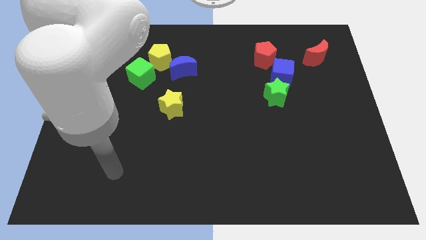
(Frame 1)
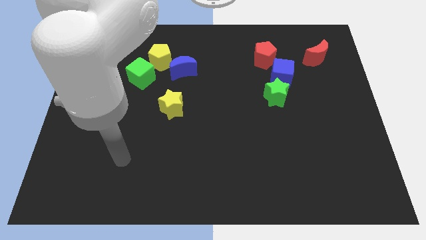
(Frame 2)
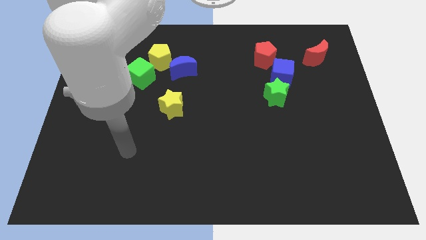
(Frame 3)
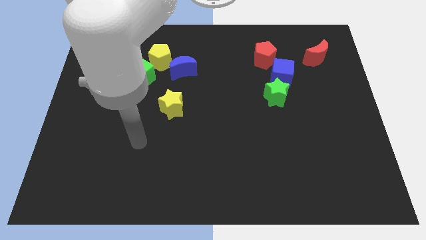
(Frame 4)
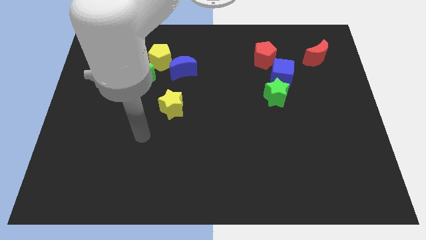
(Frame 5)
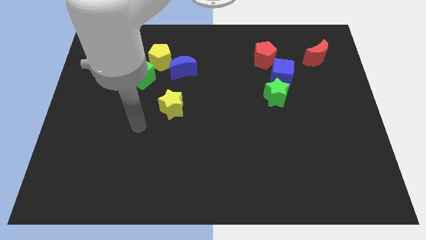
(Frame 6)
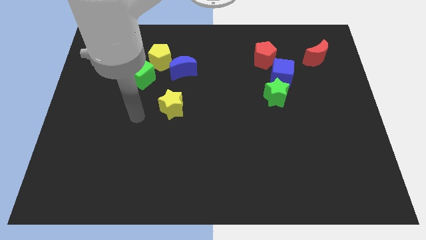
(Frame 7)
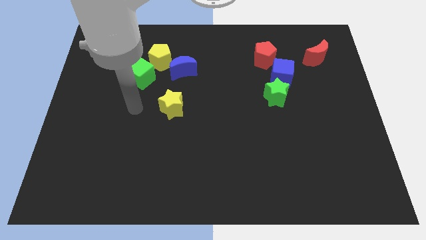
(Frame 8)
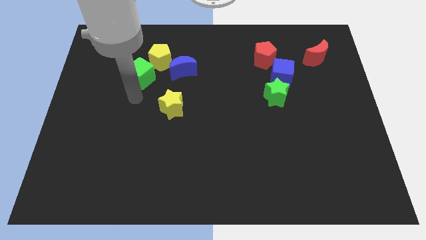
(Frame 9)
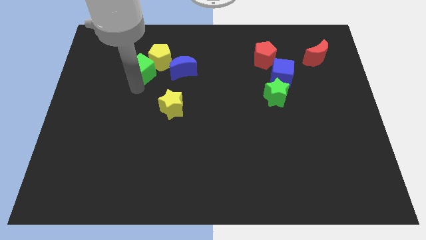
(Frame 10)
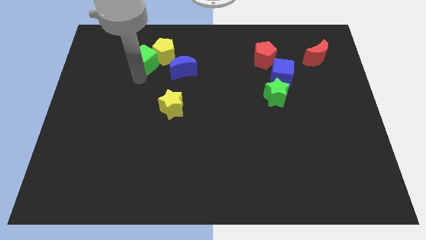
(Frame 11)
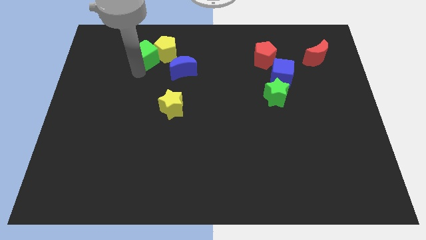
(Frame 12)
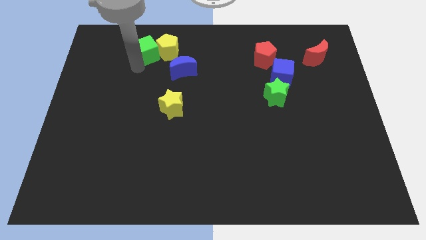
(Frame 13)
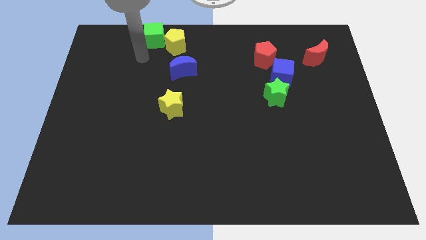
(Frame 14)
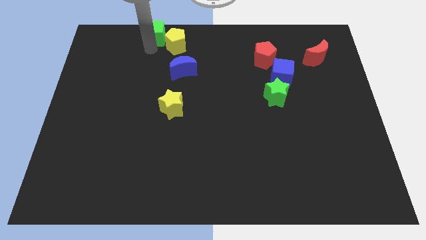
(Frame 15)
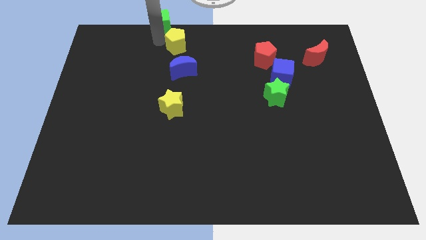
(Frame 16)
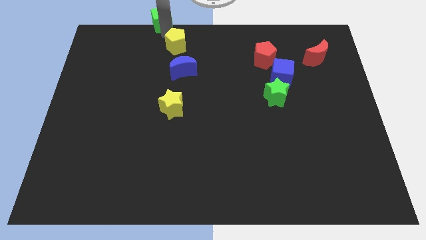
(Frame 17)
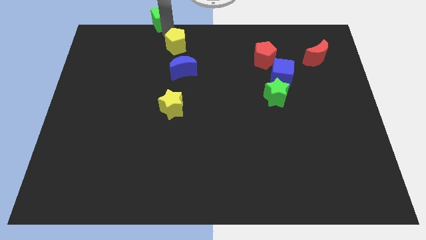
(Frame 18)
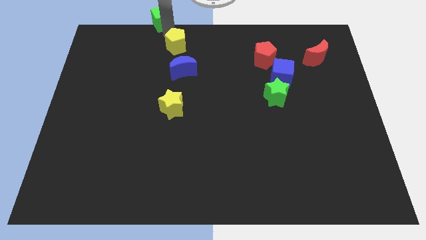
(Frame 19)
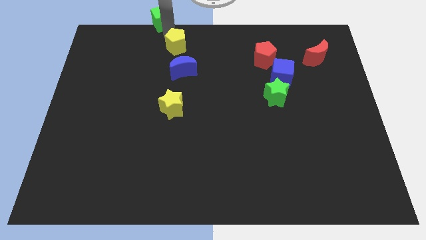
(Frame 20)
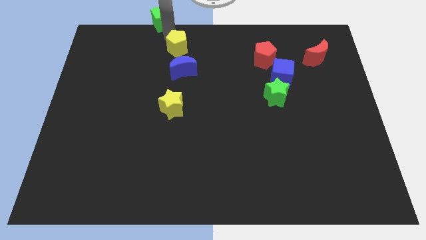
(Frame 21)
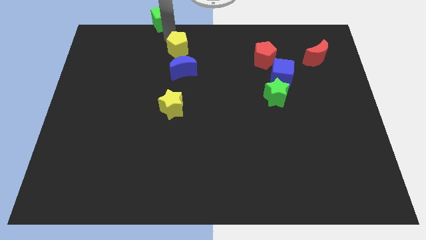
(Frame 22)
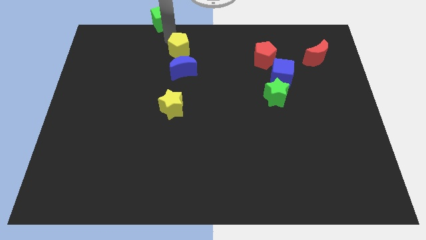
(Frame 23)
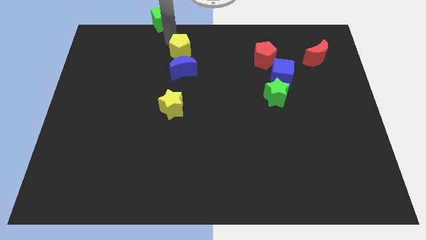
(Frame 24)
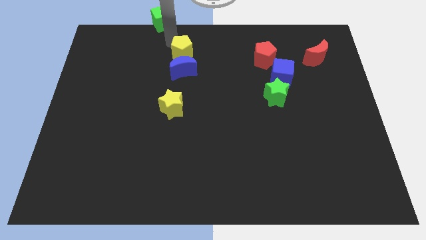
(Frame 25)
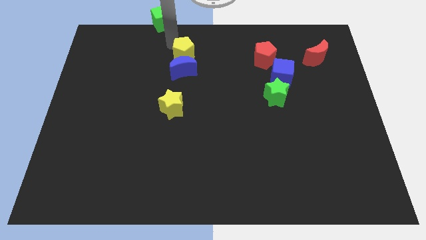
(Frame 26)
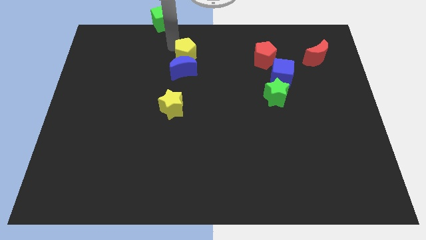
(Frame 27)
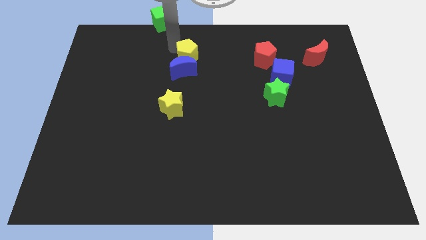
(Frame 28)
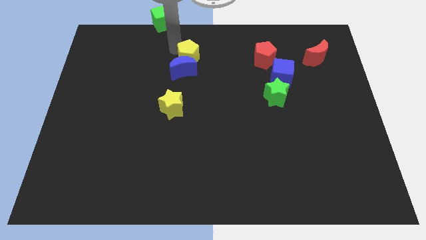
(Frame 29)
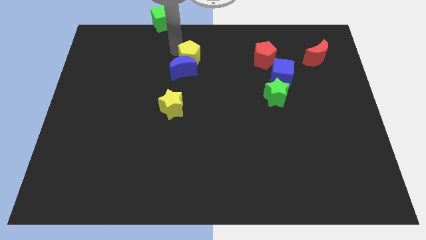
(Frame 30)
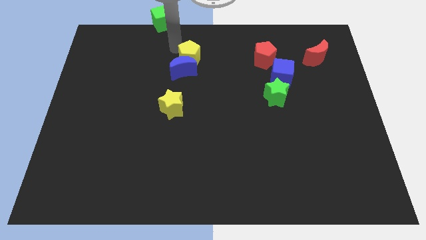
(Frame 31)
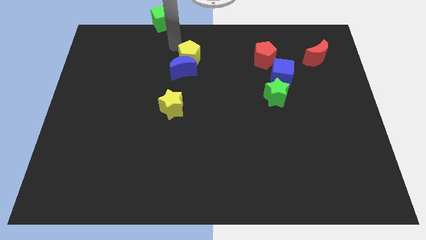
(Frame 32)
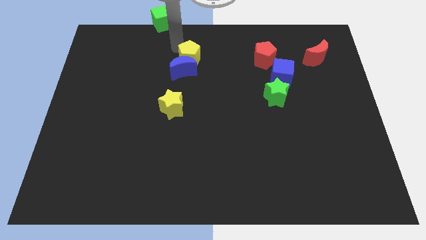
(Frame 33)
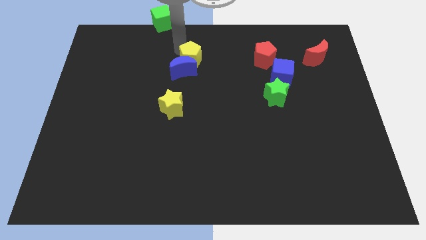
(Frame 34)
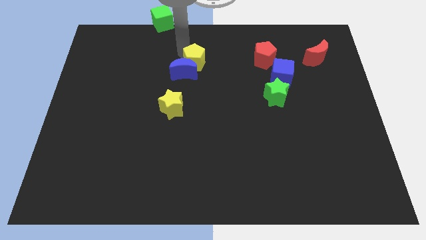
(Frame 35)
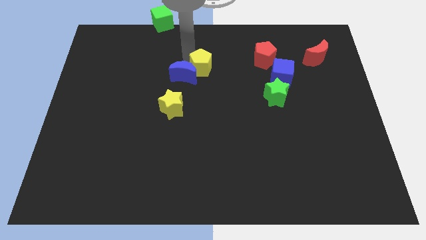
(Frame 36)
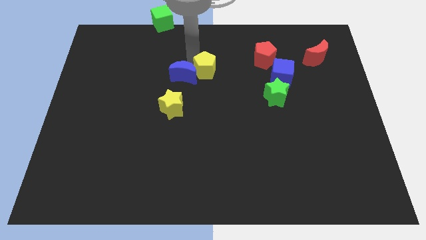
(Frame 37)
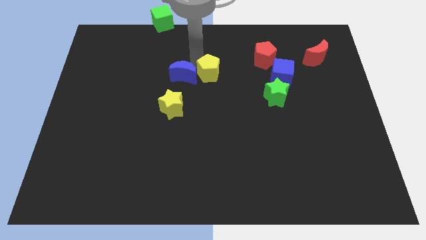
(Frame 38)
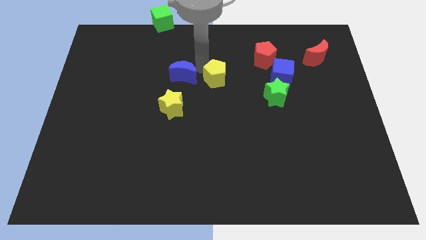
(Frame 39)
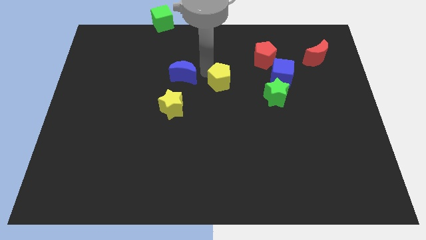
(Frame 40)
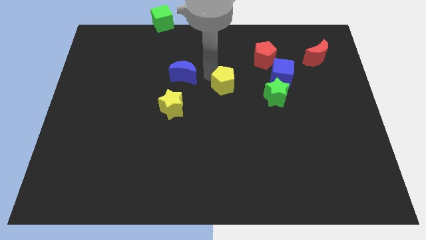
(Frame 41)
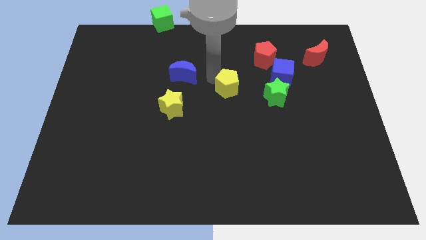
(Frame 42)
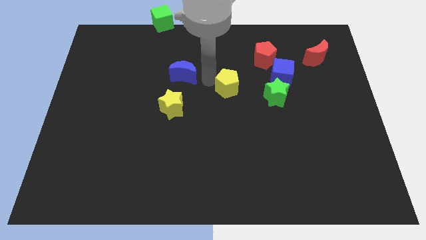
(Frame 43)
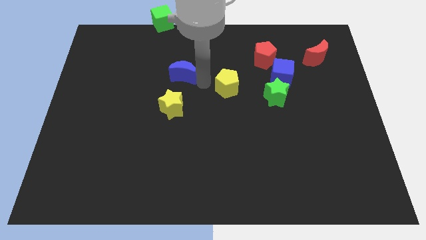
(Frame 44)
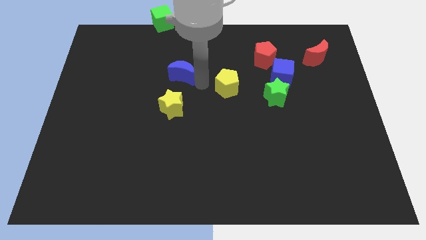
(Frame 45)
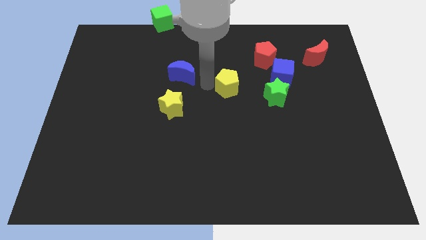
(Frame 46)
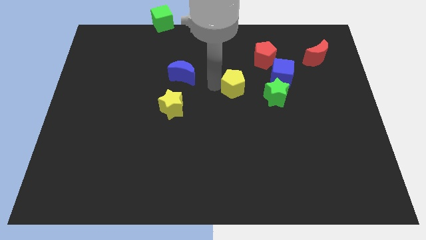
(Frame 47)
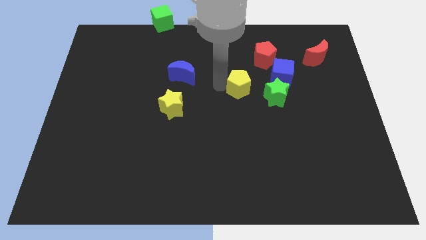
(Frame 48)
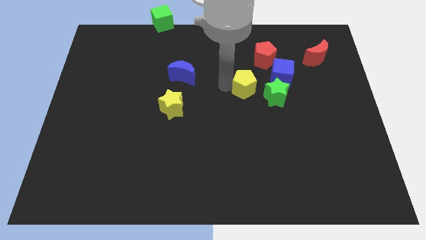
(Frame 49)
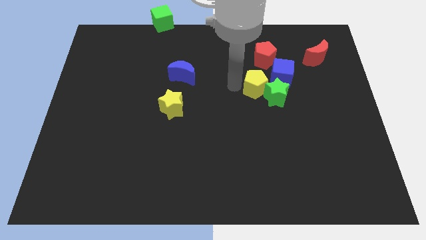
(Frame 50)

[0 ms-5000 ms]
move the yellow pentagon next to the green star

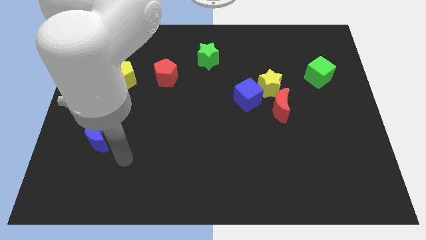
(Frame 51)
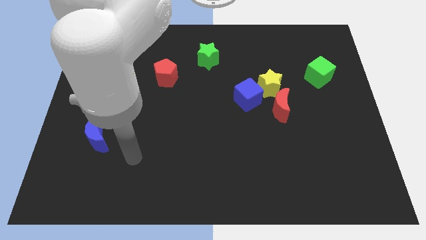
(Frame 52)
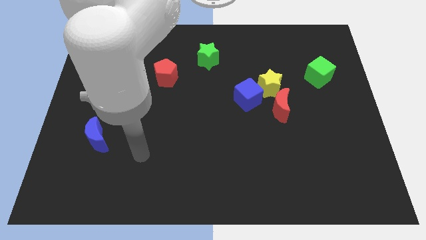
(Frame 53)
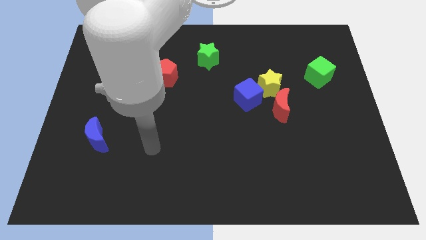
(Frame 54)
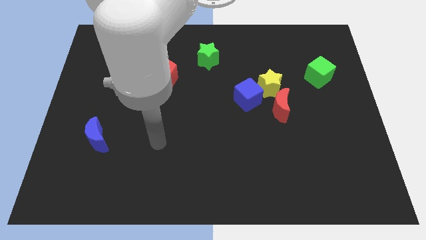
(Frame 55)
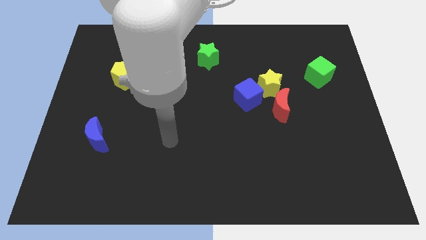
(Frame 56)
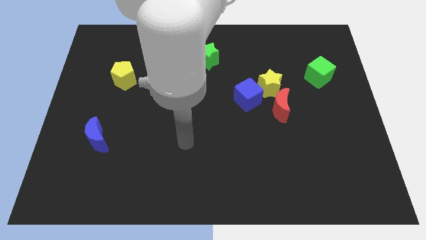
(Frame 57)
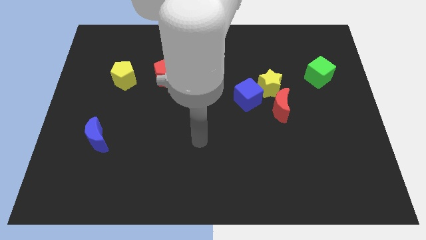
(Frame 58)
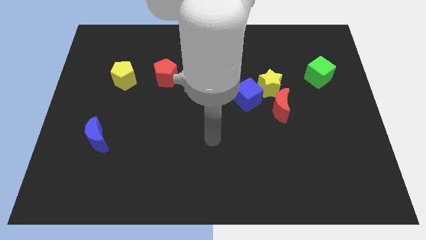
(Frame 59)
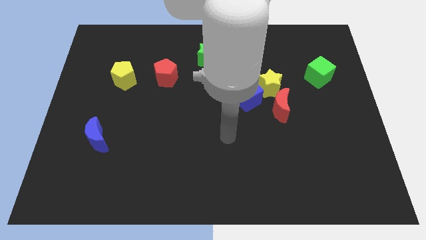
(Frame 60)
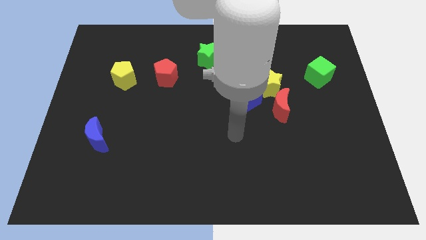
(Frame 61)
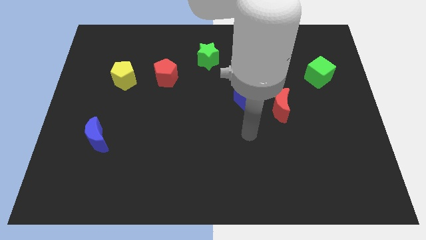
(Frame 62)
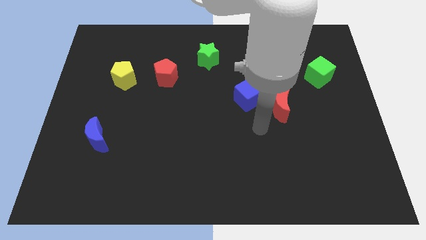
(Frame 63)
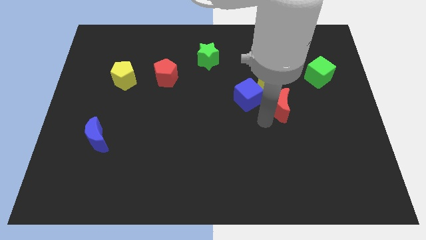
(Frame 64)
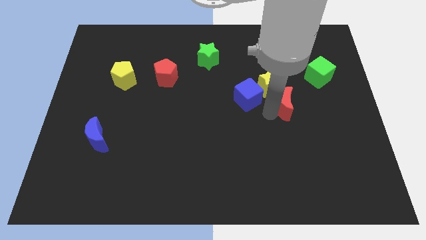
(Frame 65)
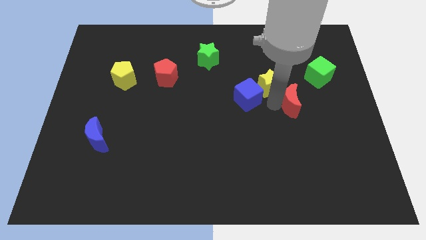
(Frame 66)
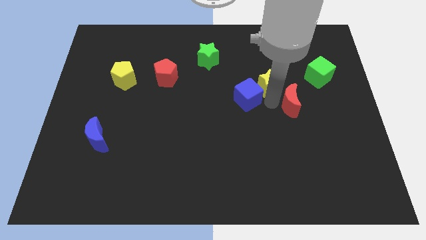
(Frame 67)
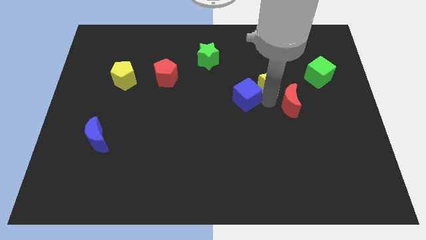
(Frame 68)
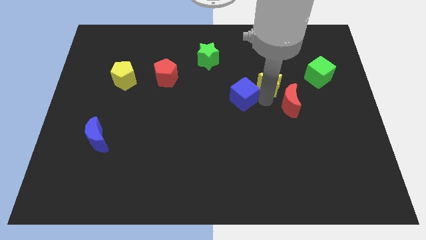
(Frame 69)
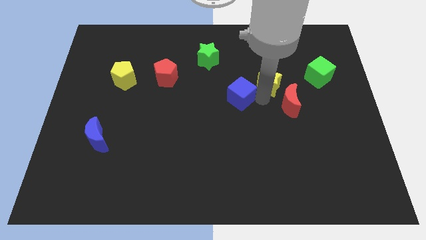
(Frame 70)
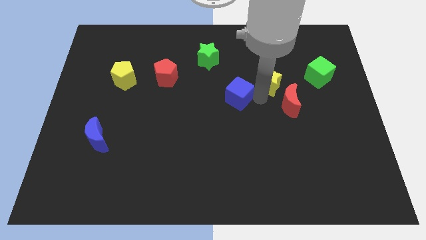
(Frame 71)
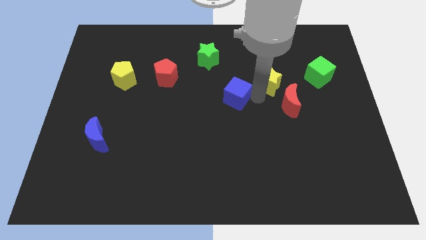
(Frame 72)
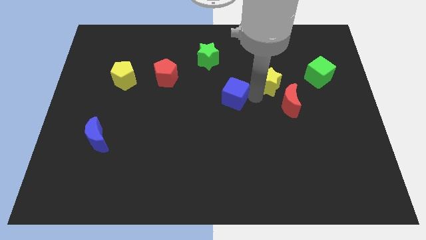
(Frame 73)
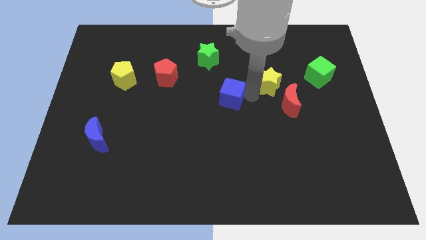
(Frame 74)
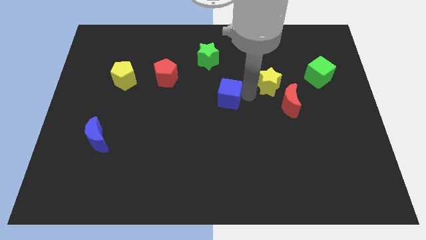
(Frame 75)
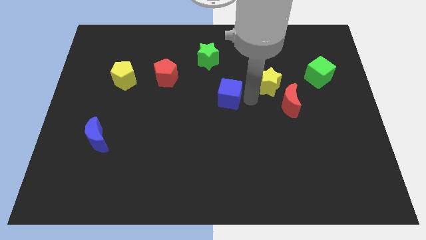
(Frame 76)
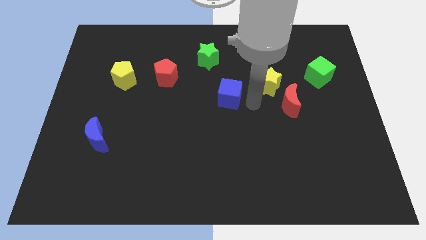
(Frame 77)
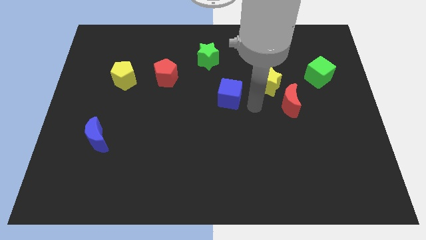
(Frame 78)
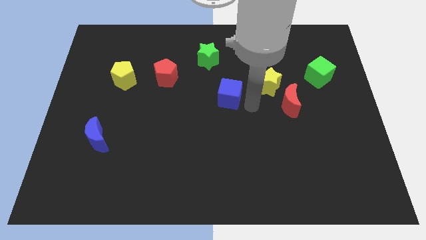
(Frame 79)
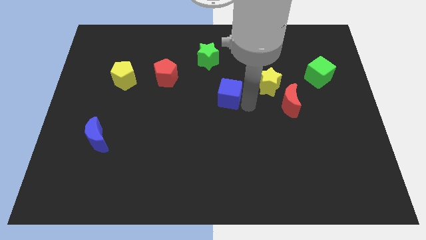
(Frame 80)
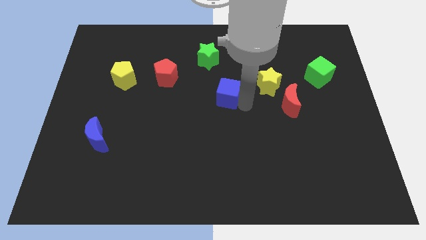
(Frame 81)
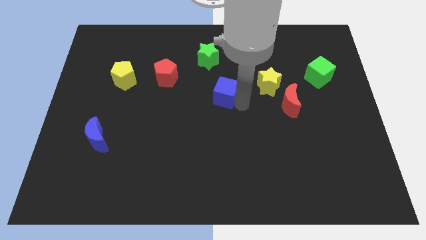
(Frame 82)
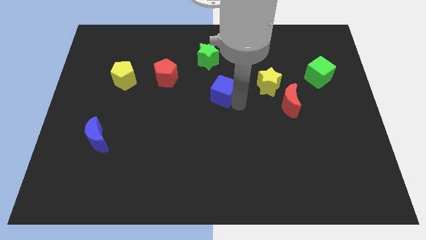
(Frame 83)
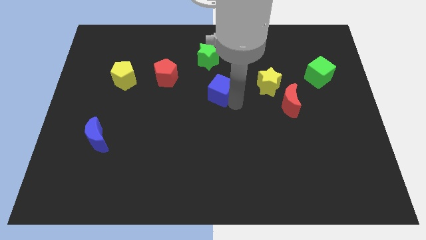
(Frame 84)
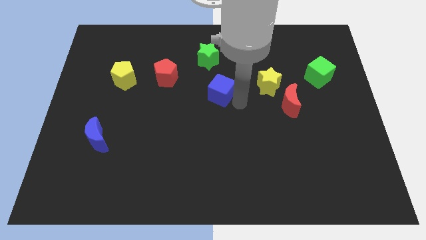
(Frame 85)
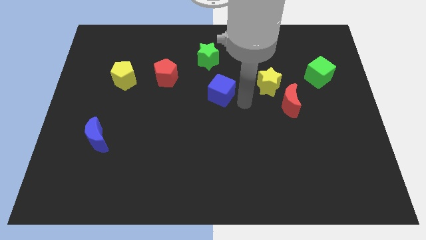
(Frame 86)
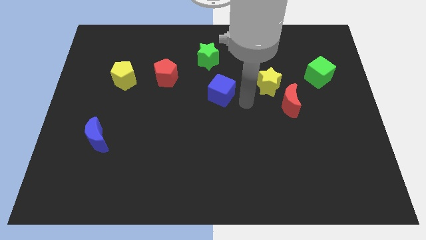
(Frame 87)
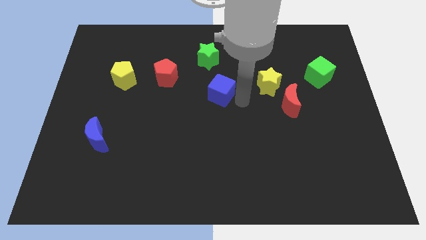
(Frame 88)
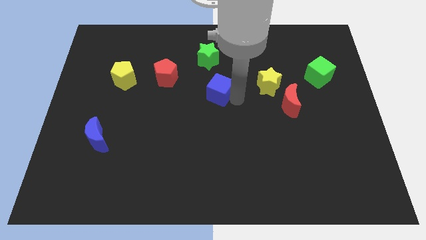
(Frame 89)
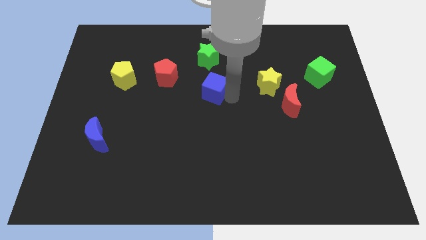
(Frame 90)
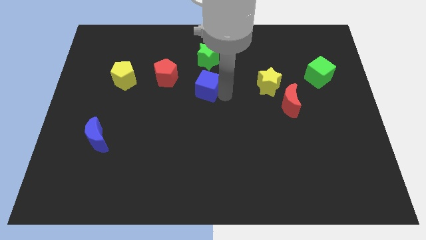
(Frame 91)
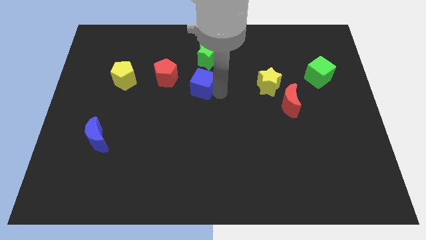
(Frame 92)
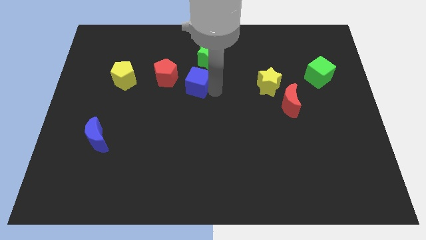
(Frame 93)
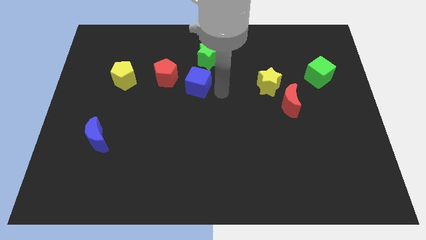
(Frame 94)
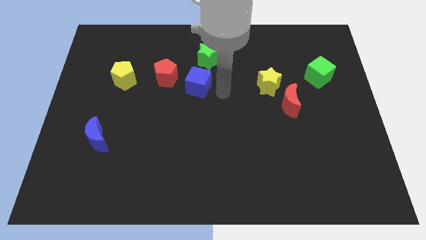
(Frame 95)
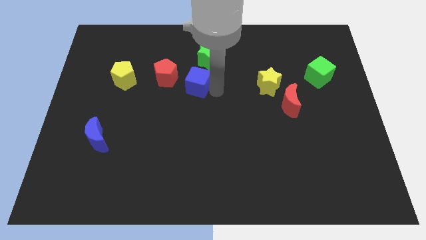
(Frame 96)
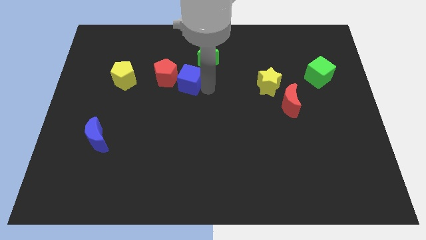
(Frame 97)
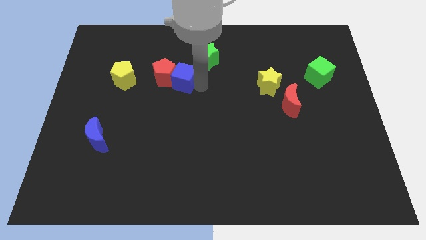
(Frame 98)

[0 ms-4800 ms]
put the blue cube next to the red pentagon
